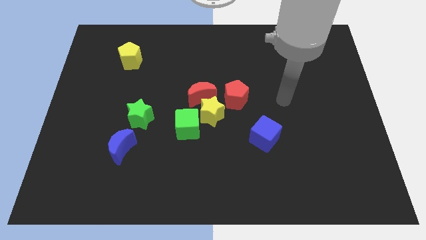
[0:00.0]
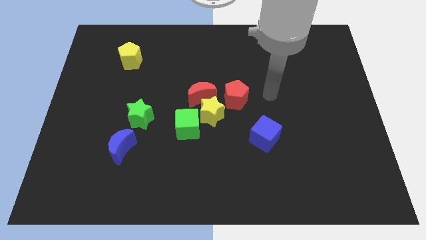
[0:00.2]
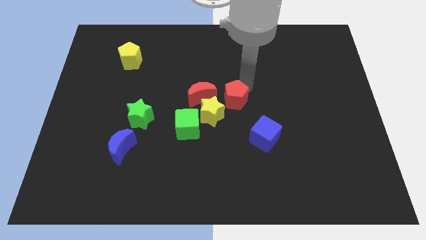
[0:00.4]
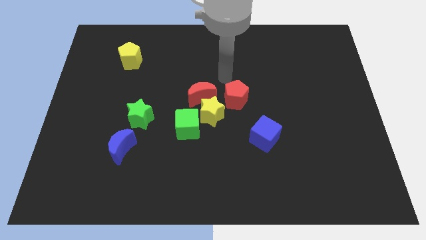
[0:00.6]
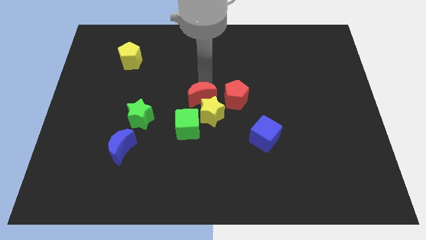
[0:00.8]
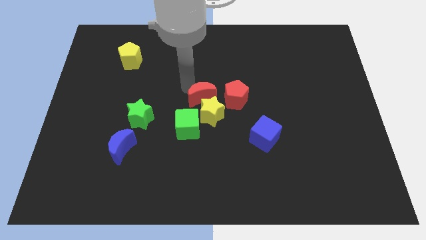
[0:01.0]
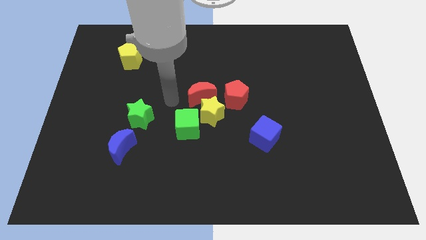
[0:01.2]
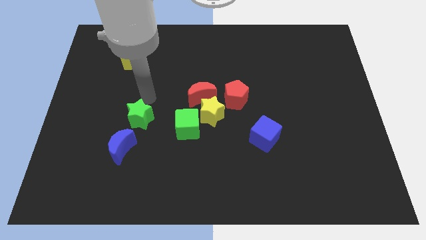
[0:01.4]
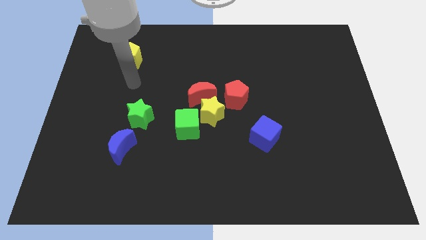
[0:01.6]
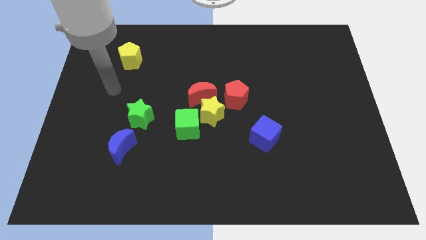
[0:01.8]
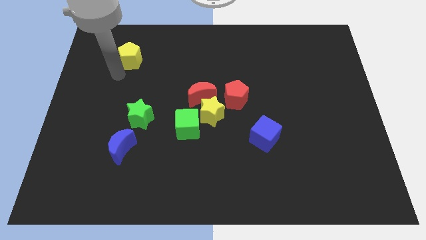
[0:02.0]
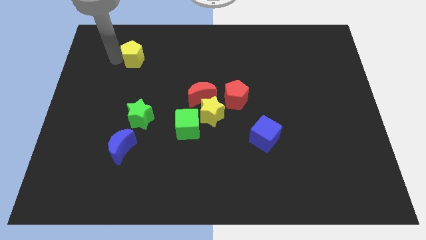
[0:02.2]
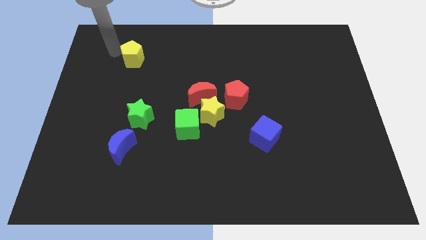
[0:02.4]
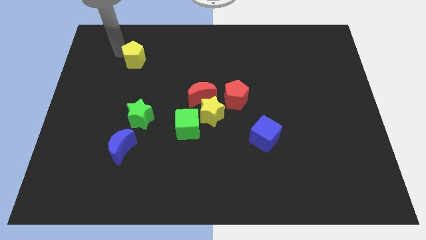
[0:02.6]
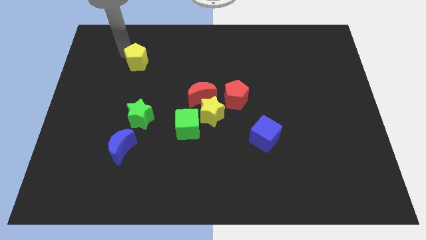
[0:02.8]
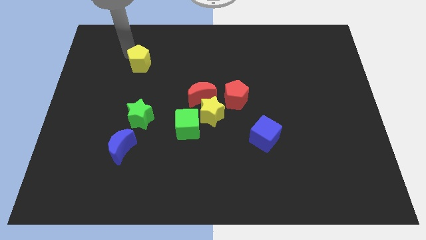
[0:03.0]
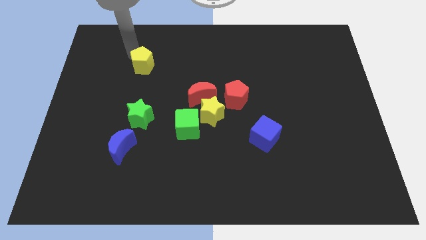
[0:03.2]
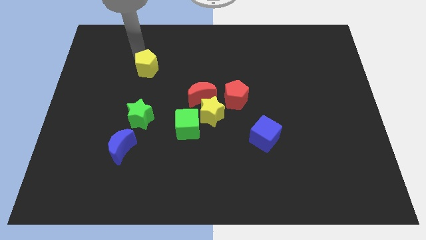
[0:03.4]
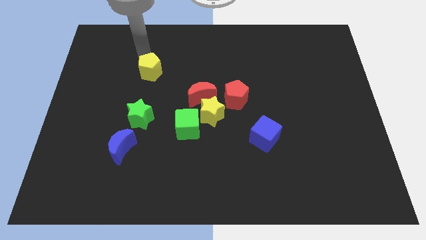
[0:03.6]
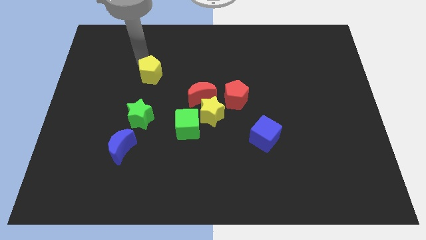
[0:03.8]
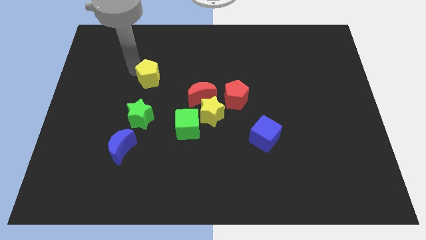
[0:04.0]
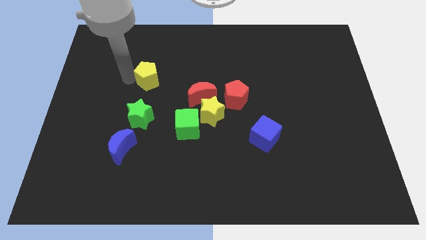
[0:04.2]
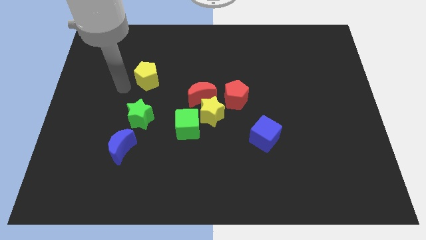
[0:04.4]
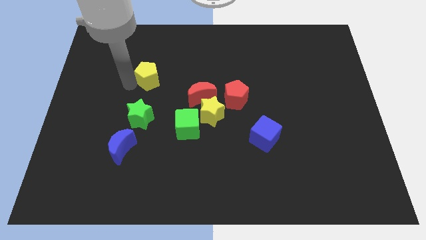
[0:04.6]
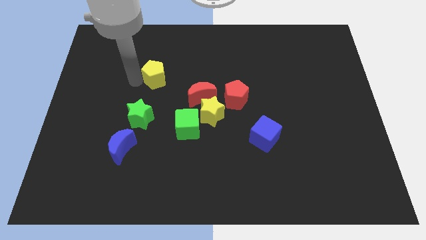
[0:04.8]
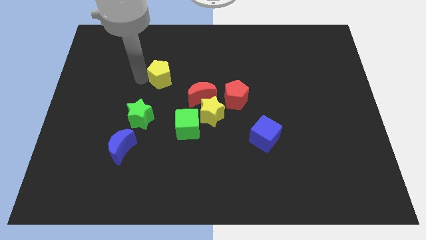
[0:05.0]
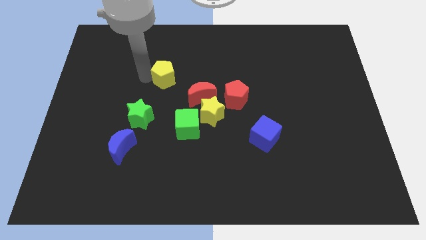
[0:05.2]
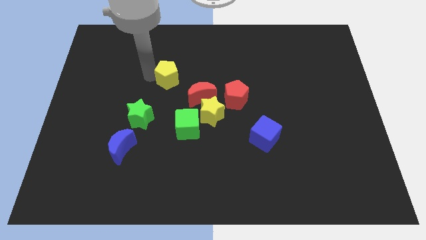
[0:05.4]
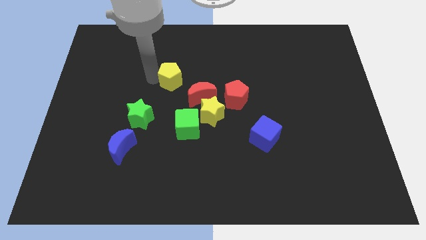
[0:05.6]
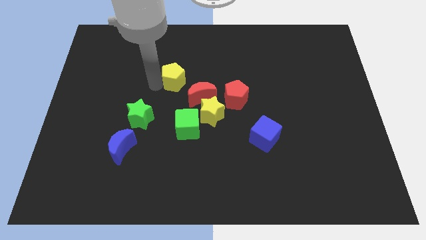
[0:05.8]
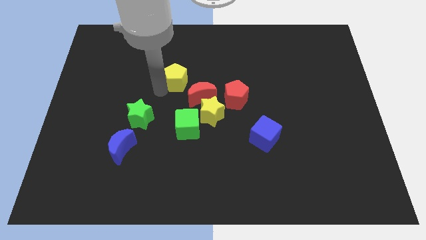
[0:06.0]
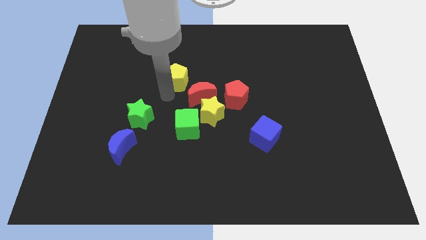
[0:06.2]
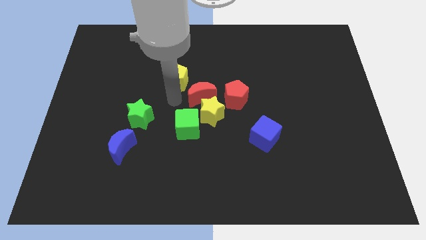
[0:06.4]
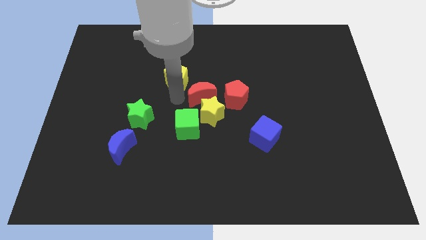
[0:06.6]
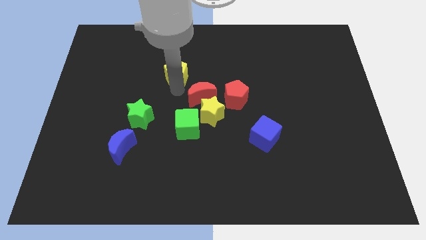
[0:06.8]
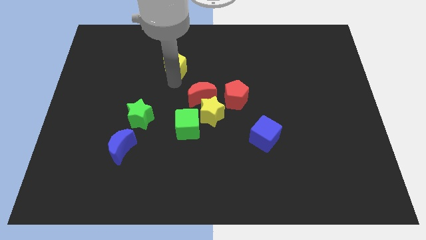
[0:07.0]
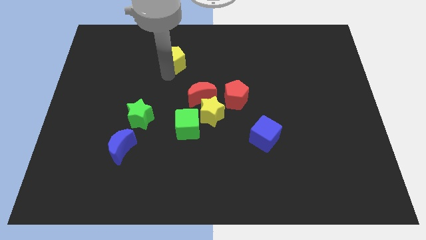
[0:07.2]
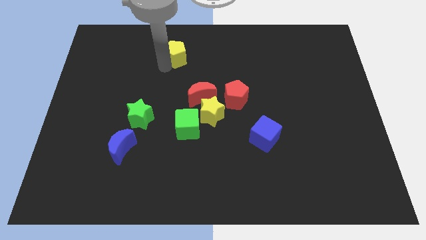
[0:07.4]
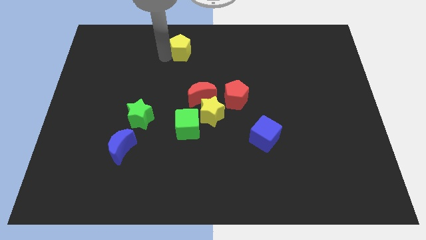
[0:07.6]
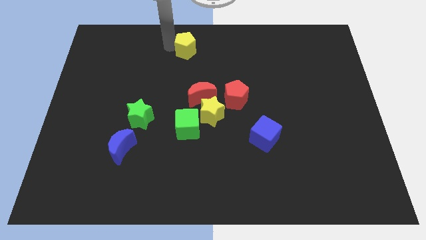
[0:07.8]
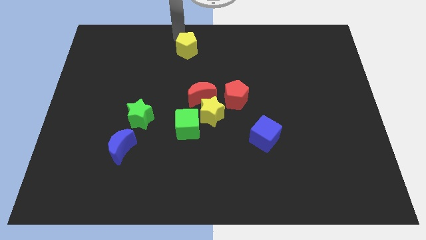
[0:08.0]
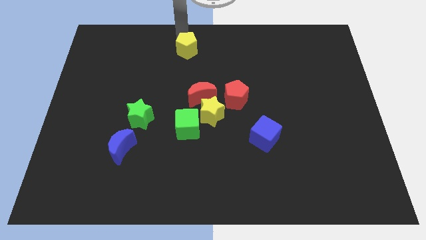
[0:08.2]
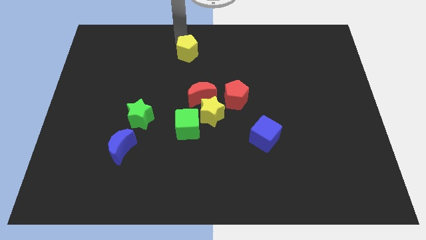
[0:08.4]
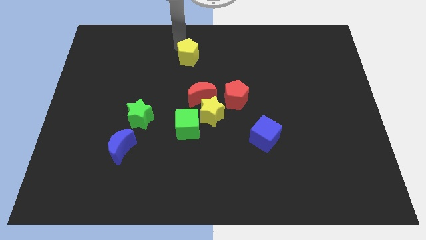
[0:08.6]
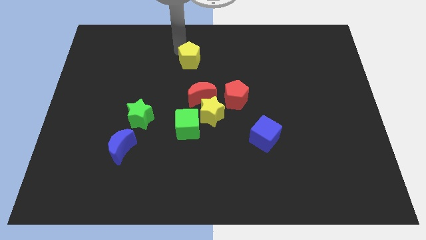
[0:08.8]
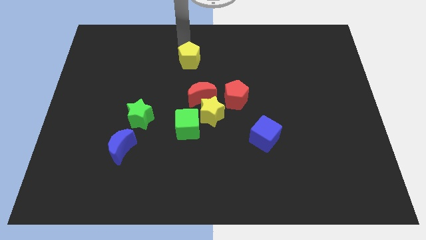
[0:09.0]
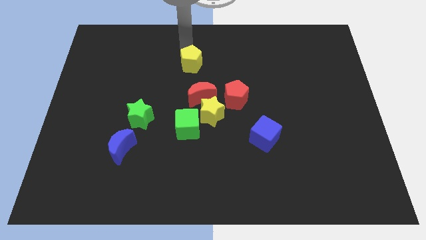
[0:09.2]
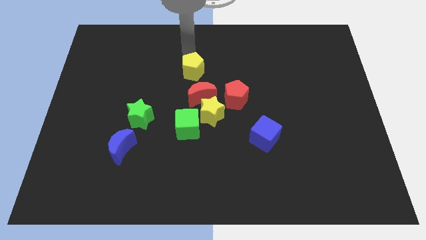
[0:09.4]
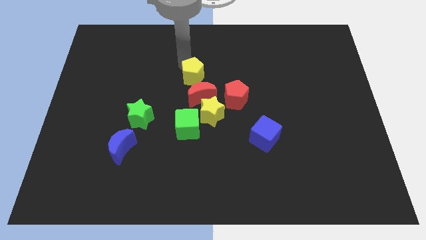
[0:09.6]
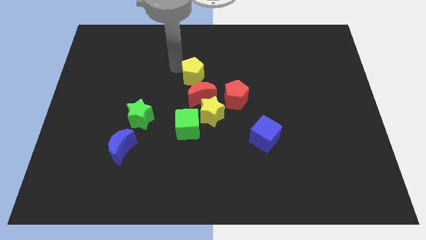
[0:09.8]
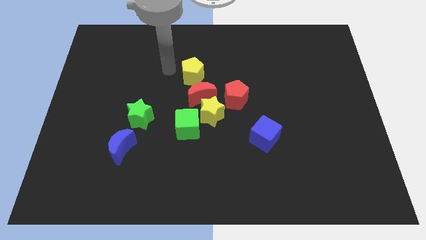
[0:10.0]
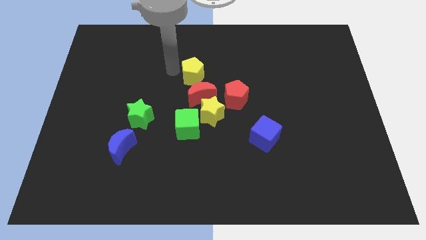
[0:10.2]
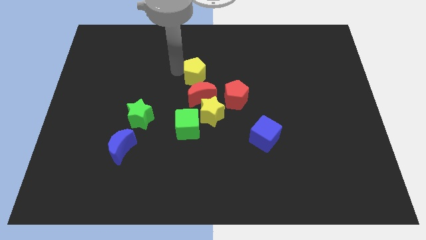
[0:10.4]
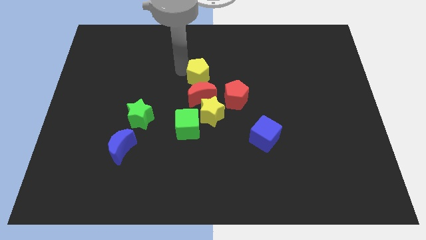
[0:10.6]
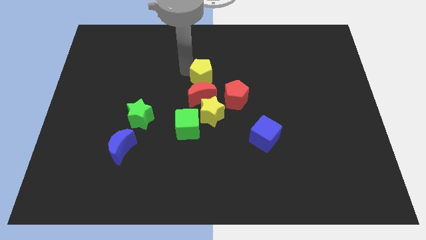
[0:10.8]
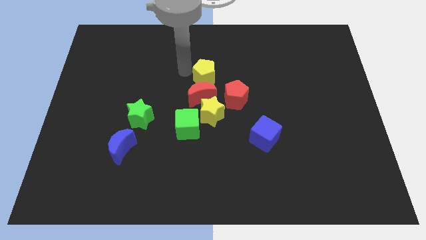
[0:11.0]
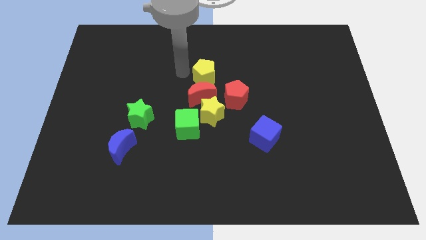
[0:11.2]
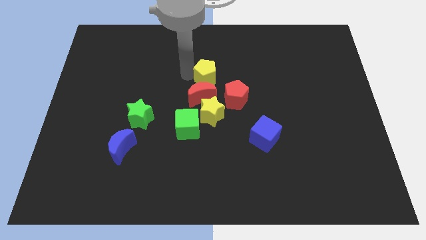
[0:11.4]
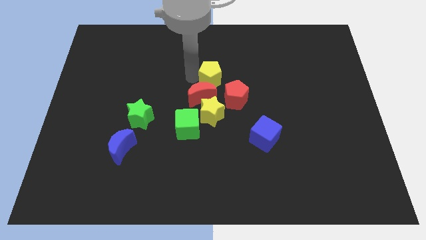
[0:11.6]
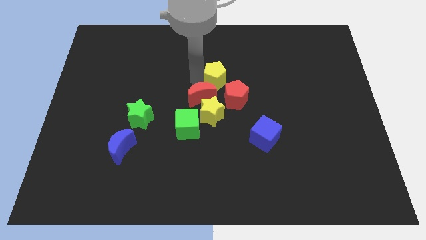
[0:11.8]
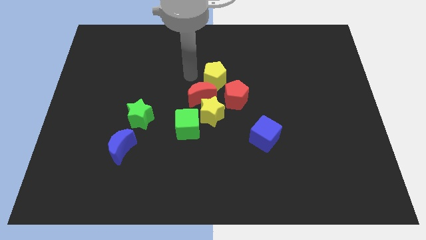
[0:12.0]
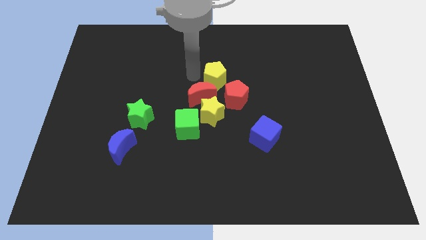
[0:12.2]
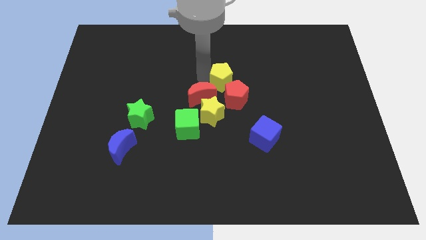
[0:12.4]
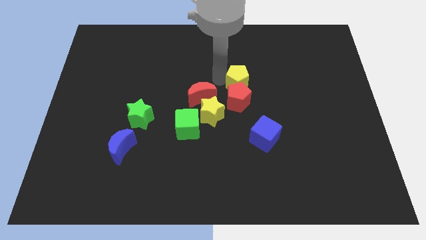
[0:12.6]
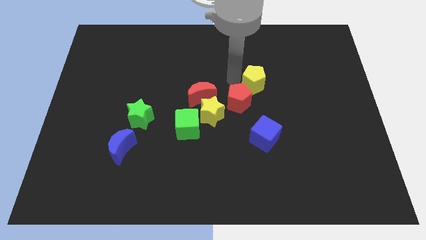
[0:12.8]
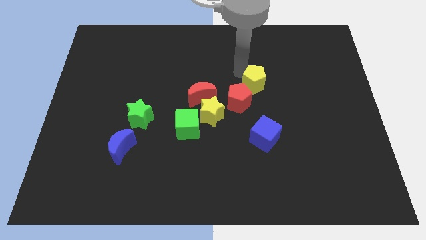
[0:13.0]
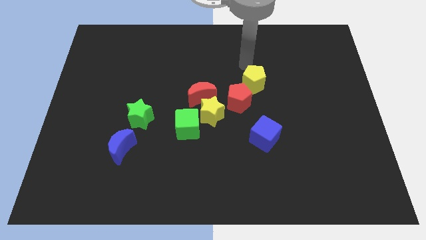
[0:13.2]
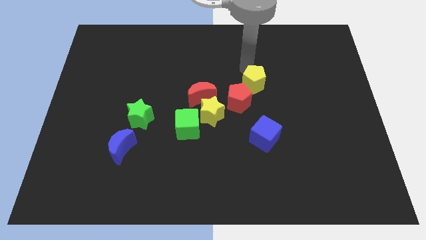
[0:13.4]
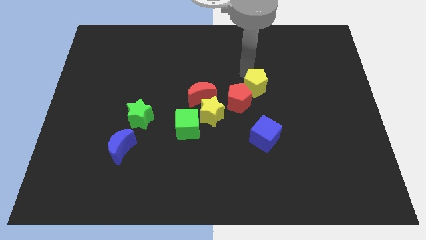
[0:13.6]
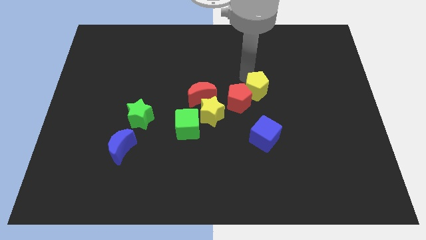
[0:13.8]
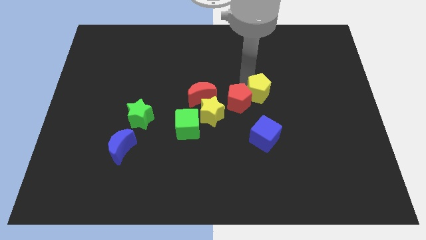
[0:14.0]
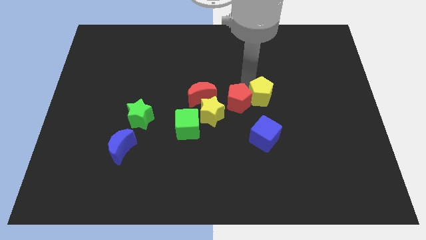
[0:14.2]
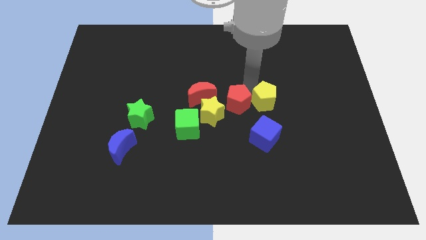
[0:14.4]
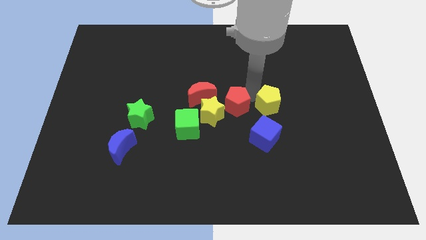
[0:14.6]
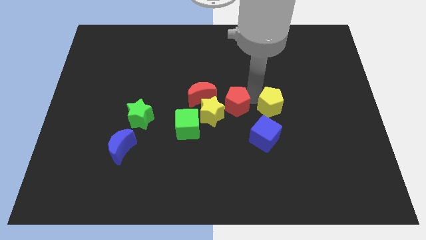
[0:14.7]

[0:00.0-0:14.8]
slide the yellow pentagon diagonally up and to the right of the blue cube
